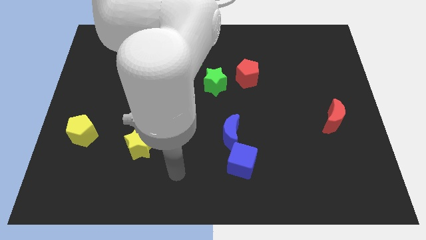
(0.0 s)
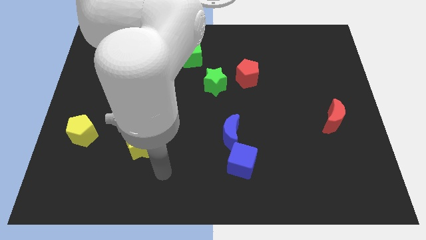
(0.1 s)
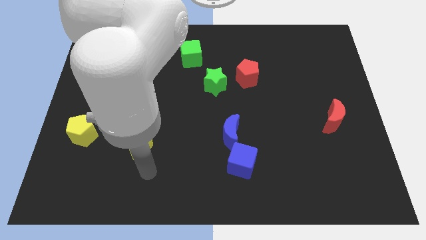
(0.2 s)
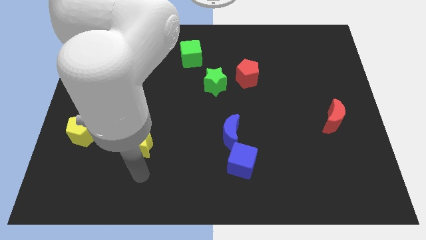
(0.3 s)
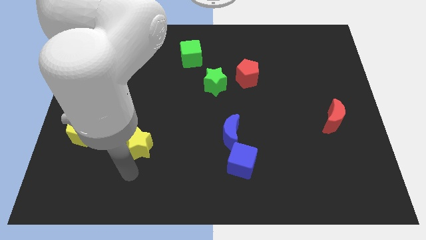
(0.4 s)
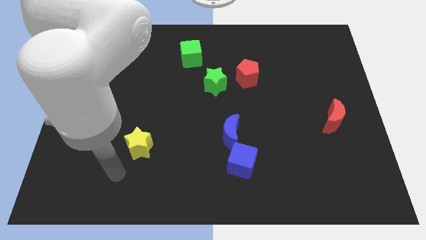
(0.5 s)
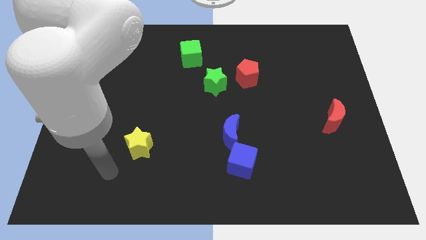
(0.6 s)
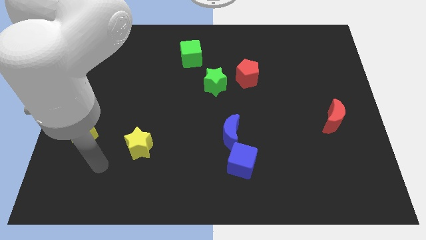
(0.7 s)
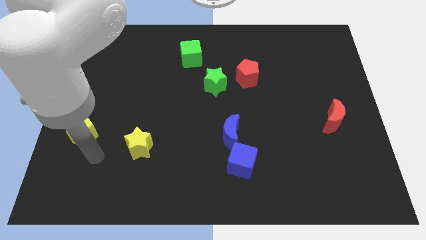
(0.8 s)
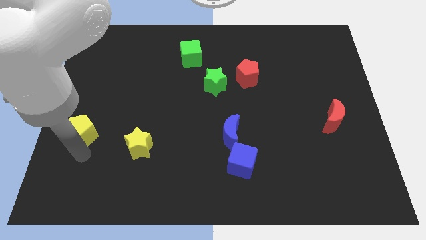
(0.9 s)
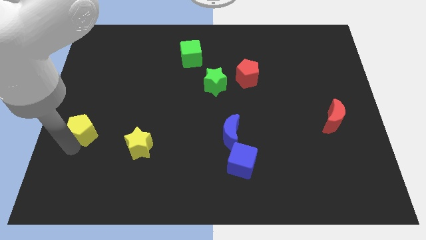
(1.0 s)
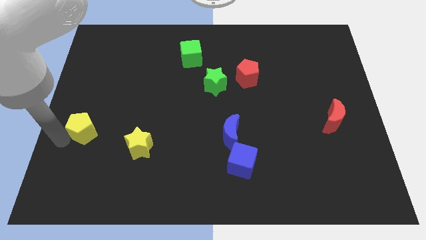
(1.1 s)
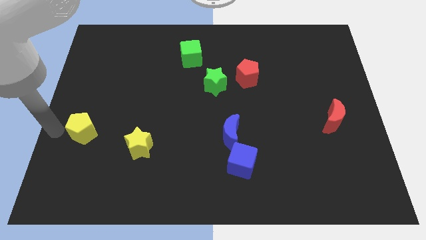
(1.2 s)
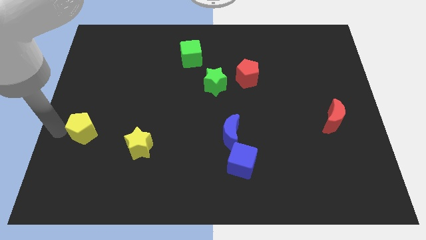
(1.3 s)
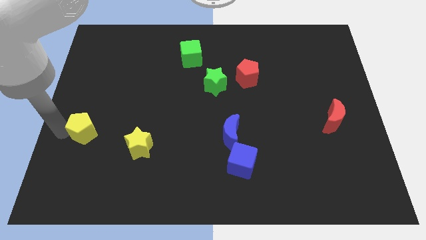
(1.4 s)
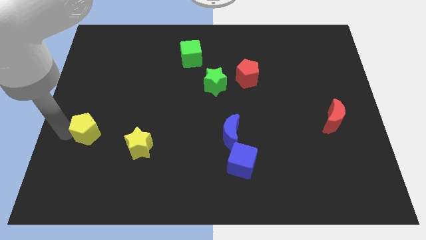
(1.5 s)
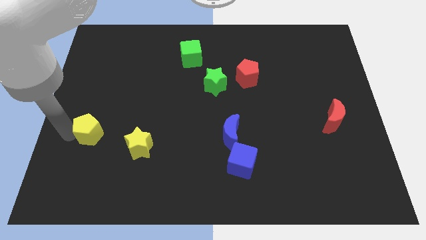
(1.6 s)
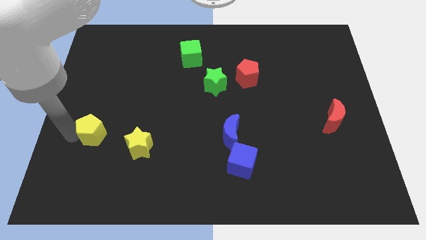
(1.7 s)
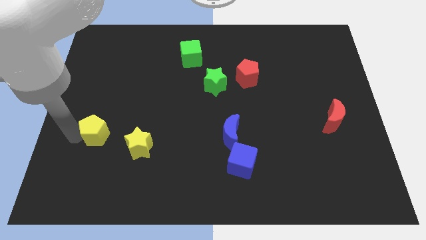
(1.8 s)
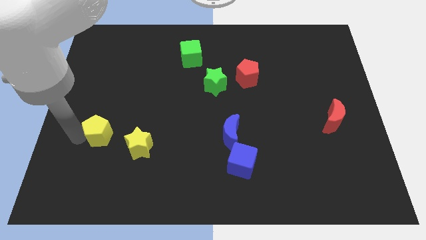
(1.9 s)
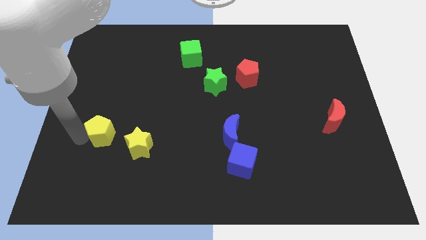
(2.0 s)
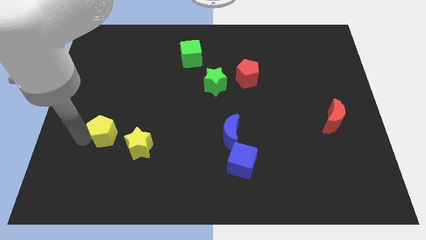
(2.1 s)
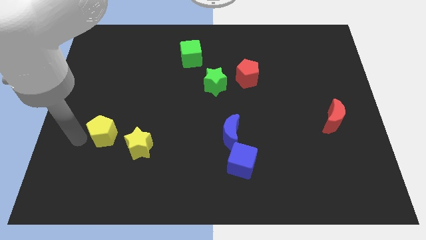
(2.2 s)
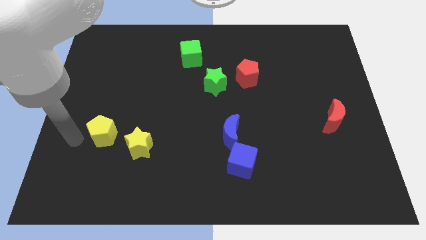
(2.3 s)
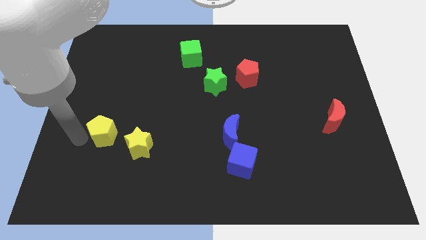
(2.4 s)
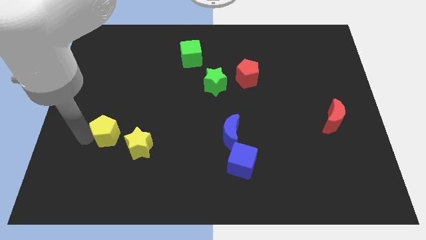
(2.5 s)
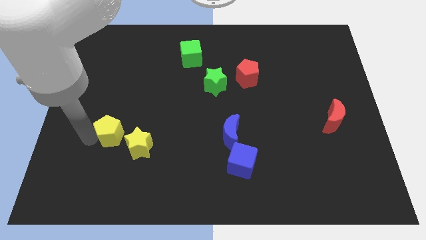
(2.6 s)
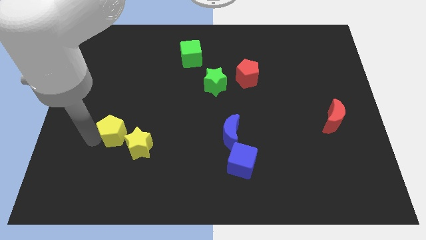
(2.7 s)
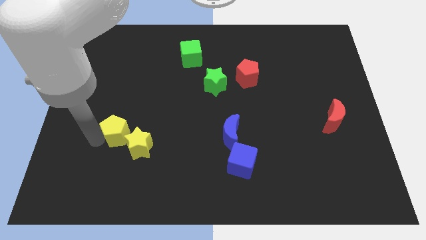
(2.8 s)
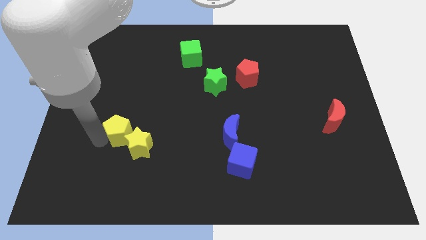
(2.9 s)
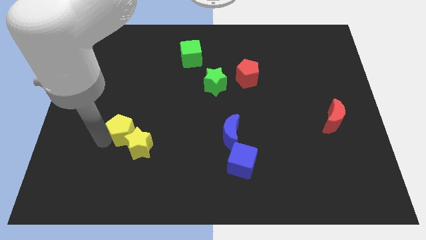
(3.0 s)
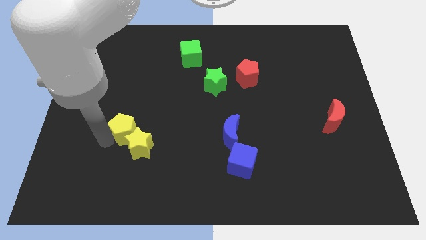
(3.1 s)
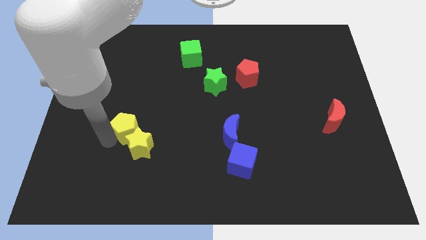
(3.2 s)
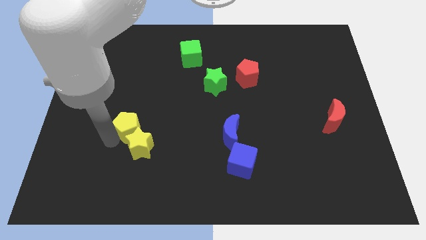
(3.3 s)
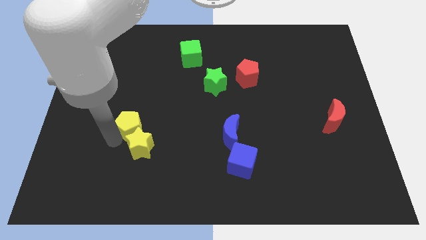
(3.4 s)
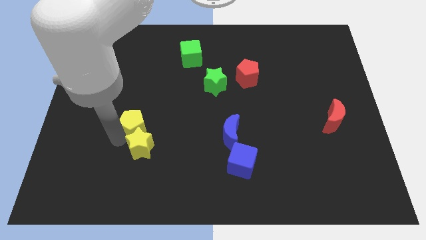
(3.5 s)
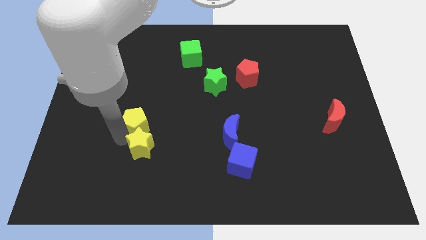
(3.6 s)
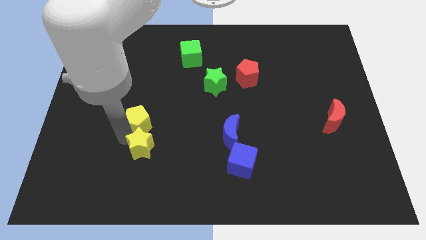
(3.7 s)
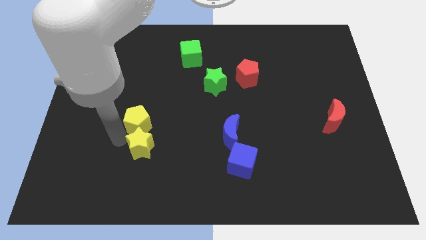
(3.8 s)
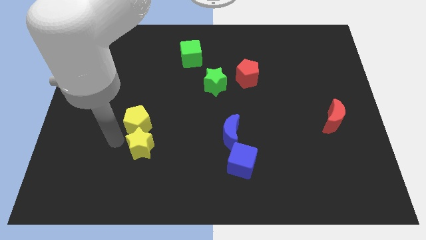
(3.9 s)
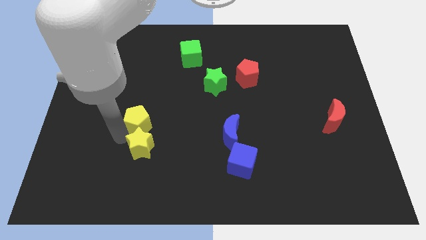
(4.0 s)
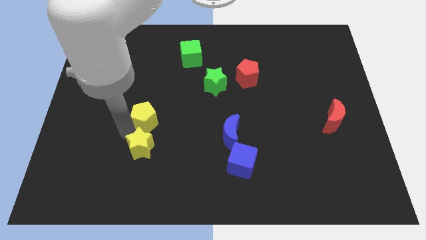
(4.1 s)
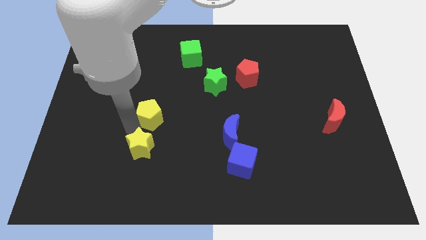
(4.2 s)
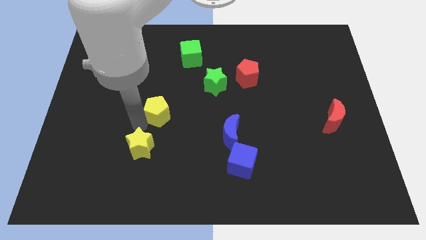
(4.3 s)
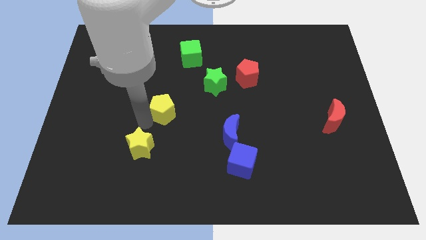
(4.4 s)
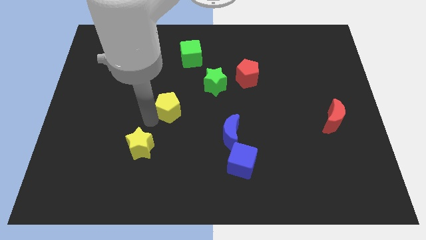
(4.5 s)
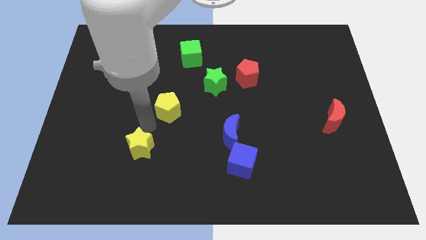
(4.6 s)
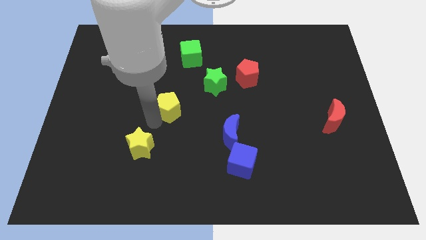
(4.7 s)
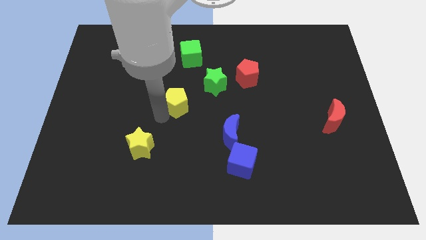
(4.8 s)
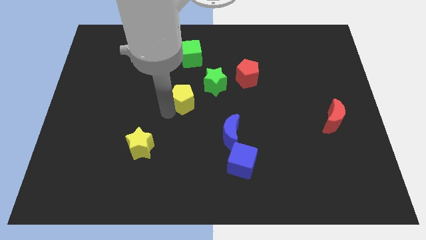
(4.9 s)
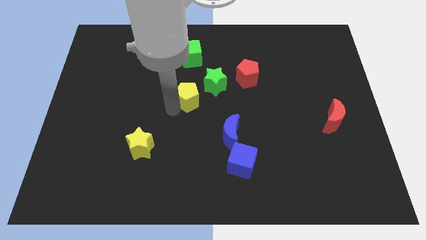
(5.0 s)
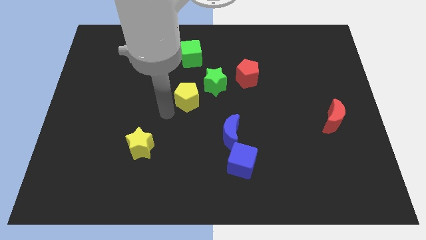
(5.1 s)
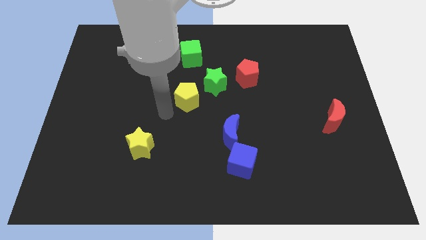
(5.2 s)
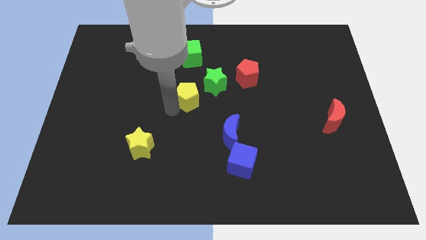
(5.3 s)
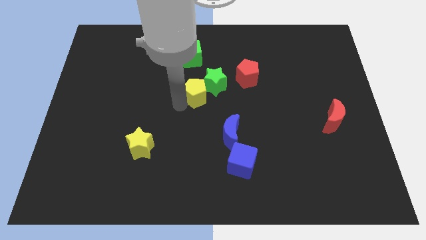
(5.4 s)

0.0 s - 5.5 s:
move the yellow pentagon close to the green star

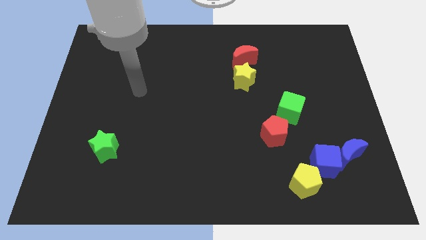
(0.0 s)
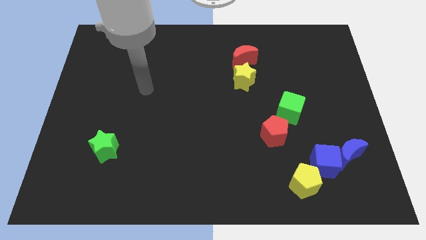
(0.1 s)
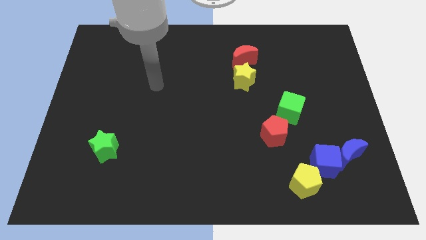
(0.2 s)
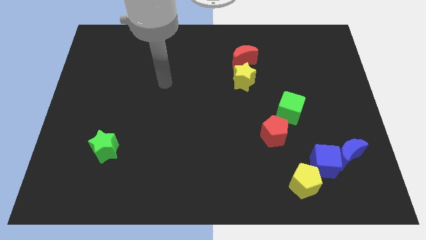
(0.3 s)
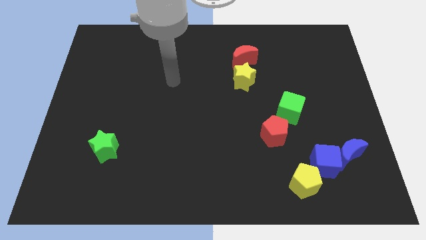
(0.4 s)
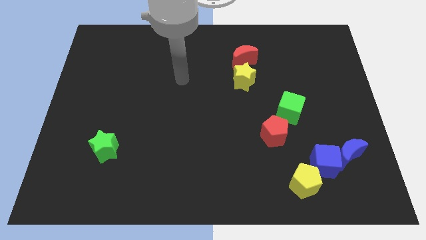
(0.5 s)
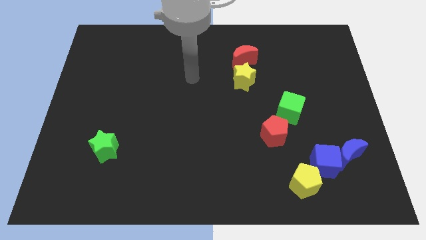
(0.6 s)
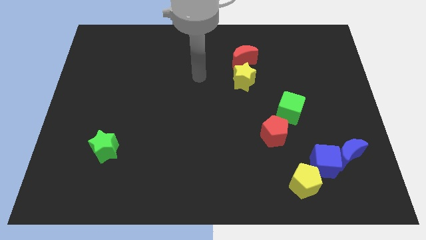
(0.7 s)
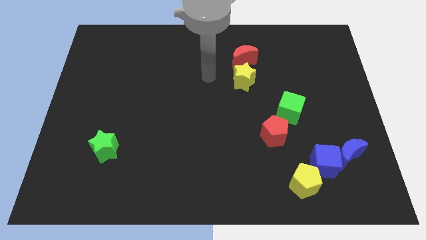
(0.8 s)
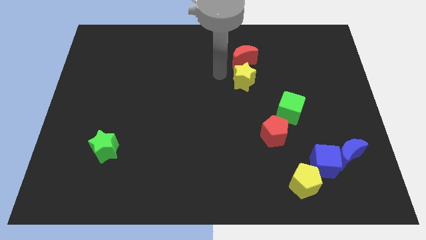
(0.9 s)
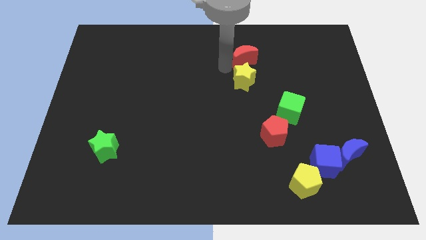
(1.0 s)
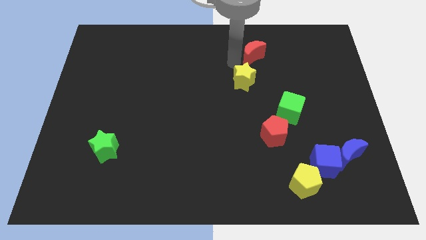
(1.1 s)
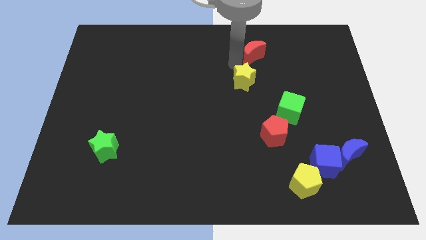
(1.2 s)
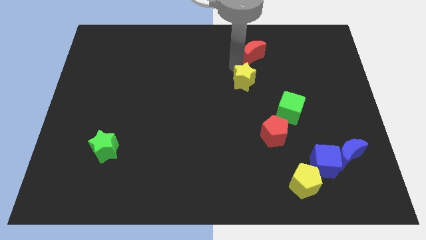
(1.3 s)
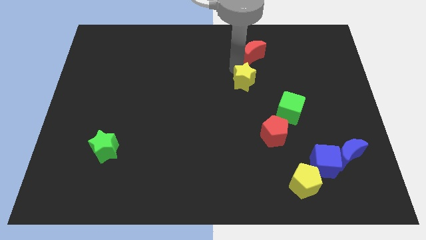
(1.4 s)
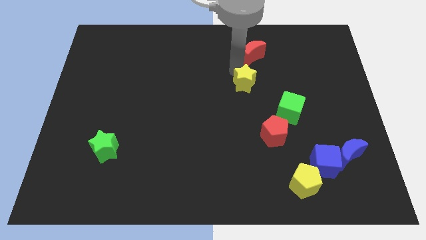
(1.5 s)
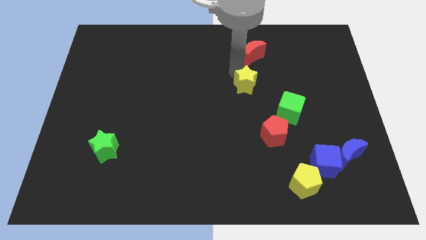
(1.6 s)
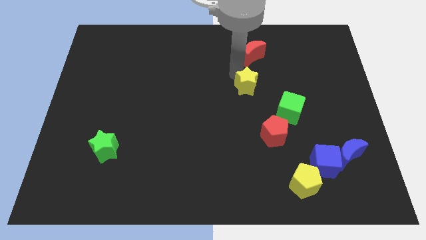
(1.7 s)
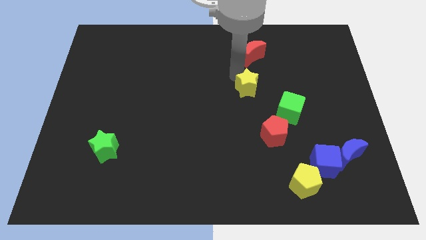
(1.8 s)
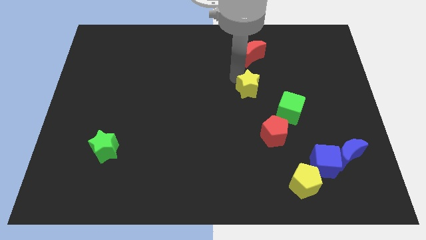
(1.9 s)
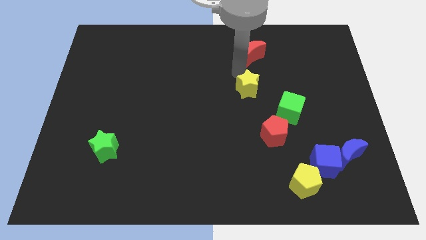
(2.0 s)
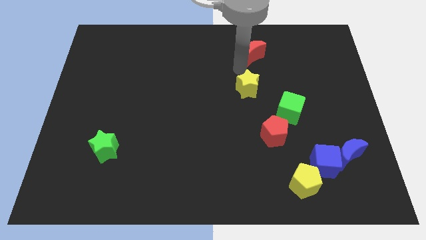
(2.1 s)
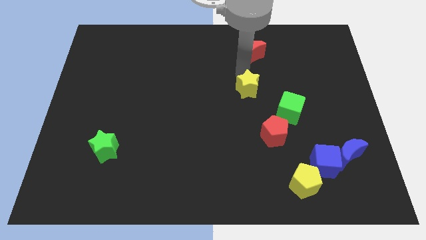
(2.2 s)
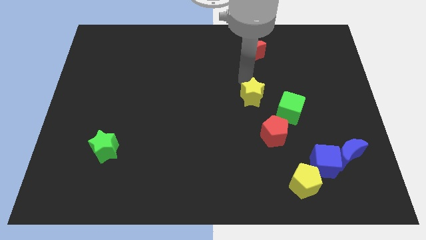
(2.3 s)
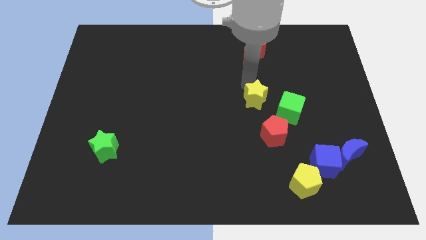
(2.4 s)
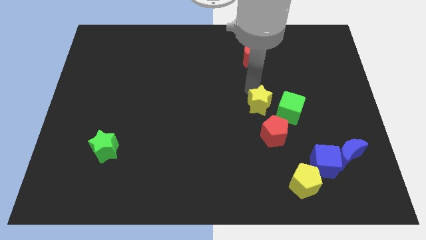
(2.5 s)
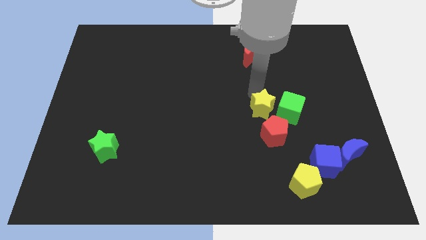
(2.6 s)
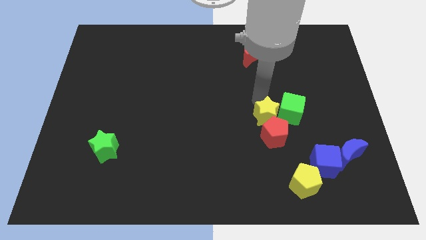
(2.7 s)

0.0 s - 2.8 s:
put the yellow star towards the red pentagon
